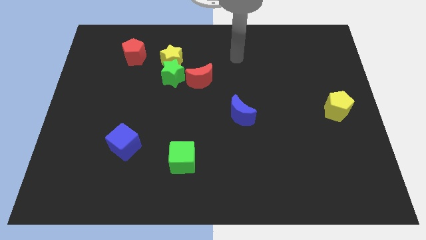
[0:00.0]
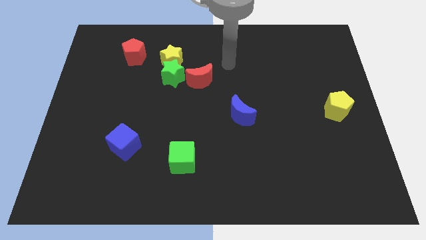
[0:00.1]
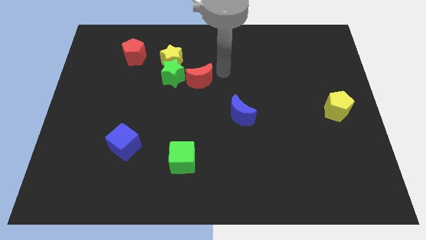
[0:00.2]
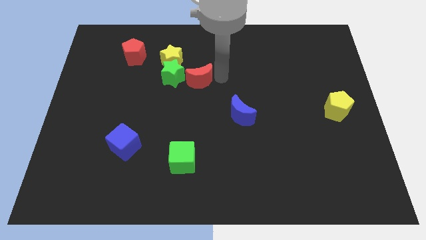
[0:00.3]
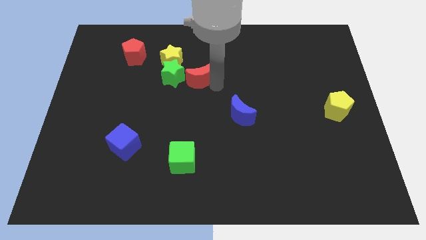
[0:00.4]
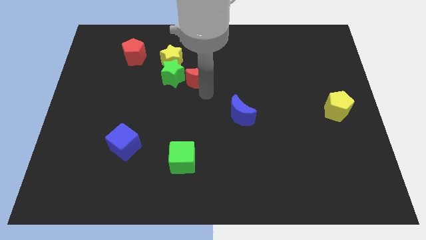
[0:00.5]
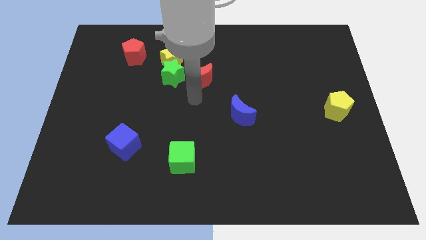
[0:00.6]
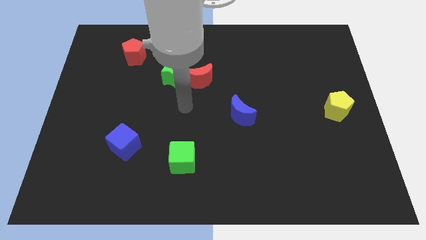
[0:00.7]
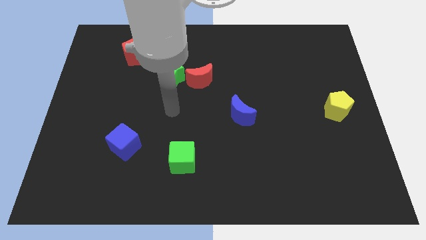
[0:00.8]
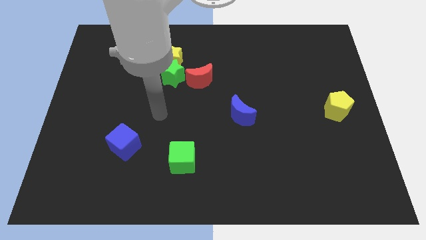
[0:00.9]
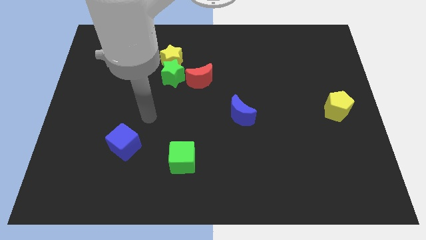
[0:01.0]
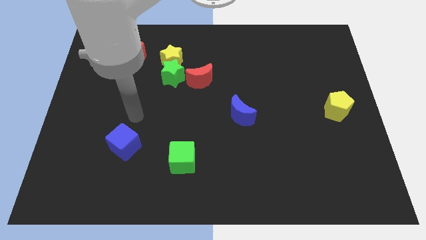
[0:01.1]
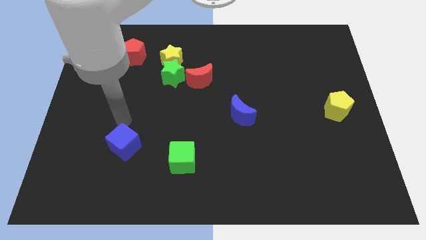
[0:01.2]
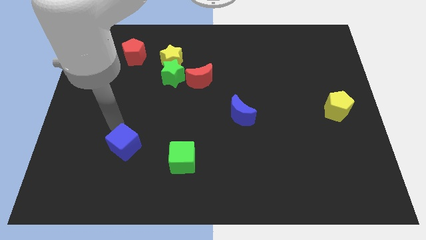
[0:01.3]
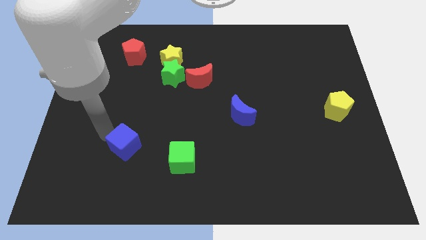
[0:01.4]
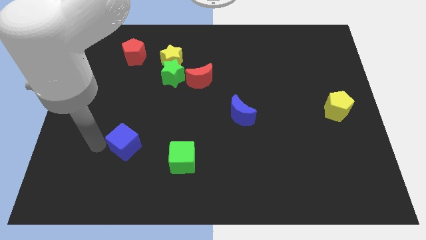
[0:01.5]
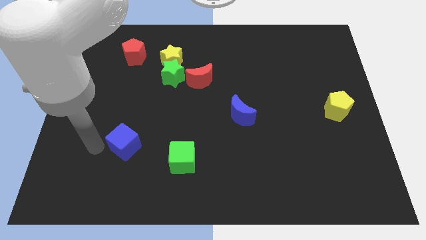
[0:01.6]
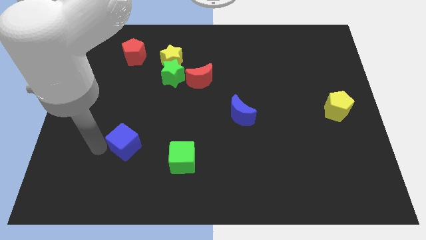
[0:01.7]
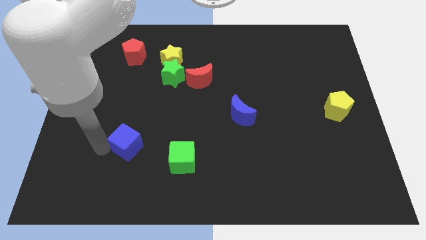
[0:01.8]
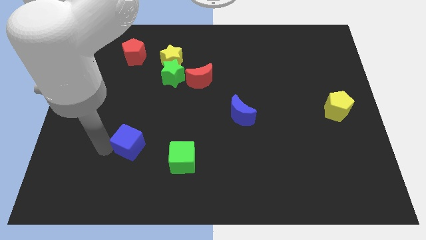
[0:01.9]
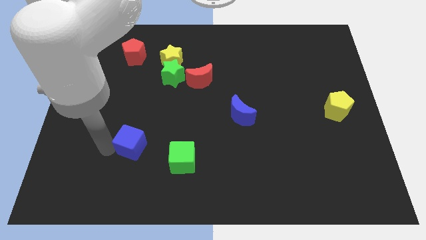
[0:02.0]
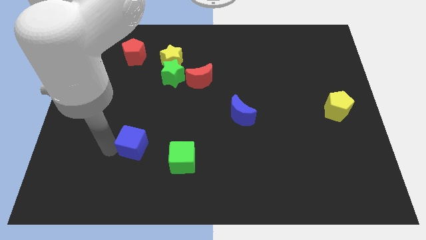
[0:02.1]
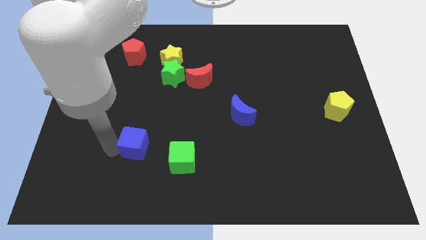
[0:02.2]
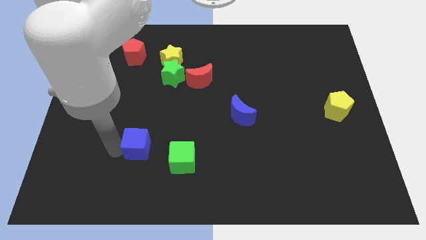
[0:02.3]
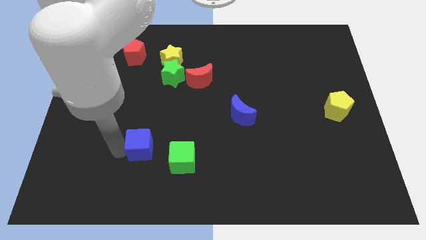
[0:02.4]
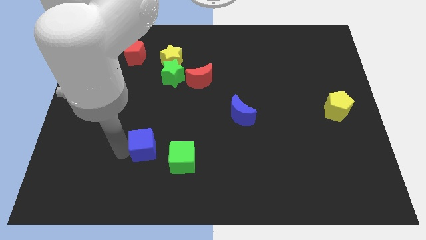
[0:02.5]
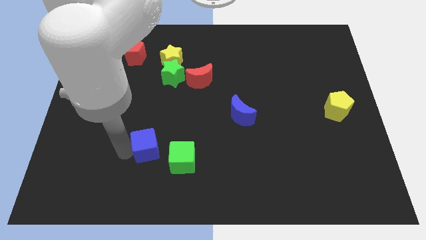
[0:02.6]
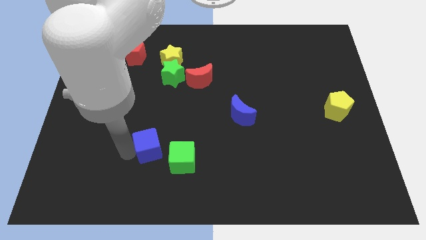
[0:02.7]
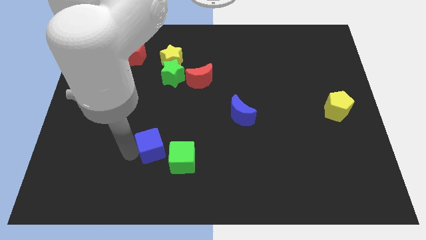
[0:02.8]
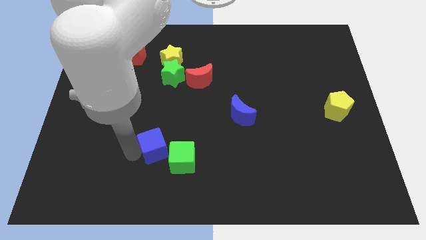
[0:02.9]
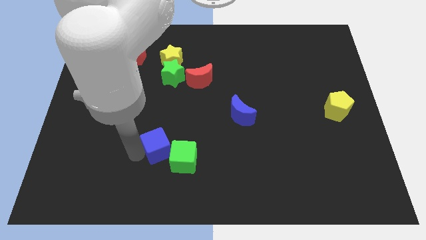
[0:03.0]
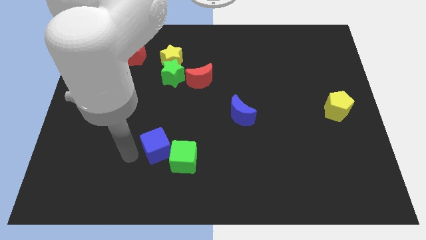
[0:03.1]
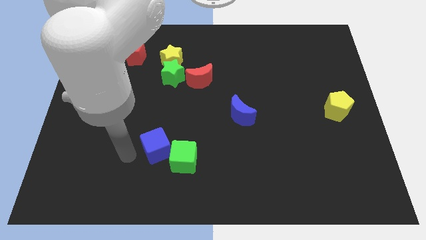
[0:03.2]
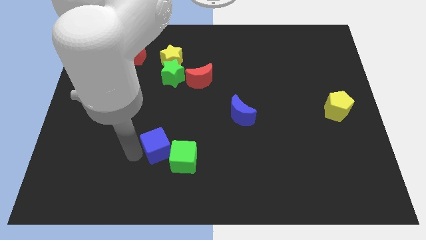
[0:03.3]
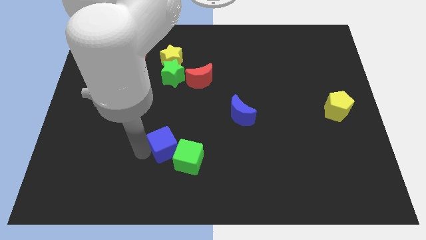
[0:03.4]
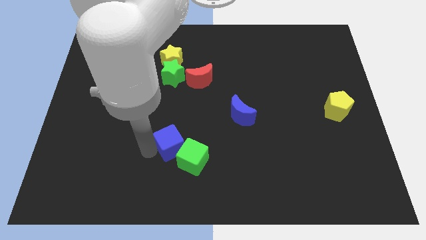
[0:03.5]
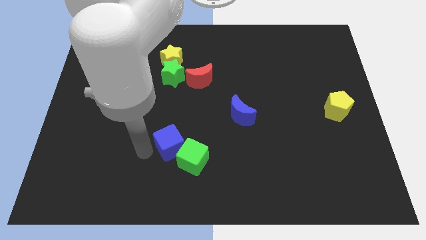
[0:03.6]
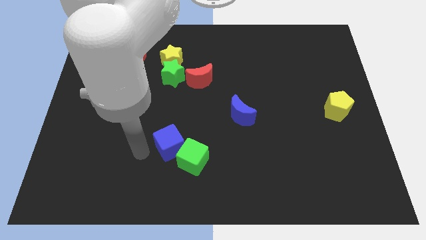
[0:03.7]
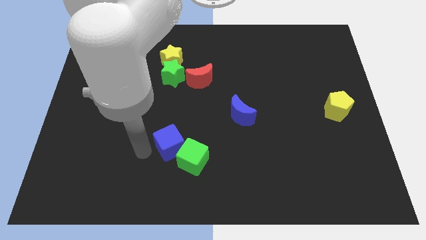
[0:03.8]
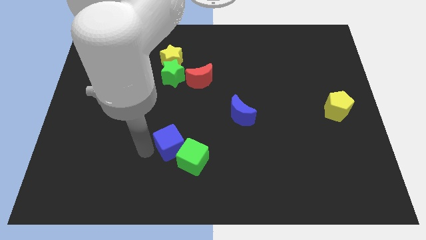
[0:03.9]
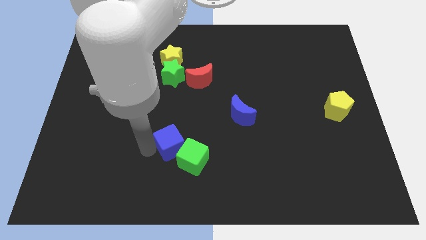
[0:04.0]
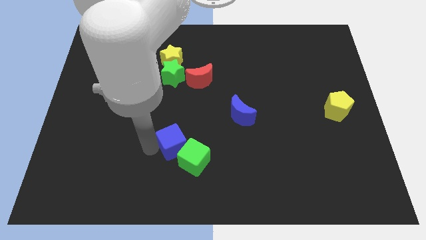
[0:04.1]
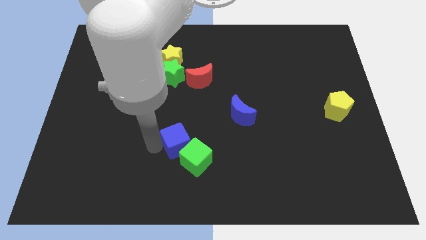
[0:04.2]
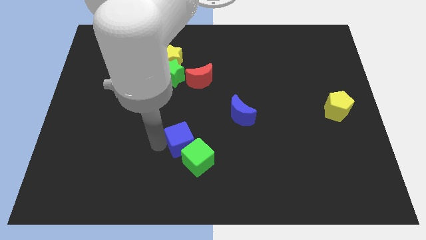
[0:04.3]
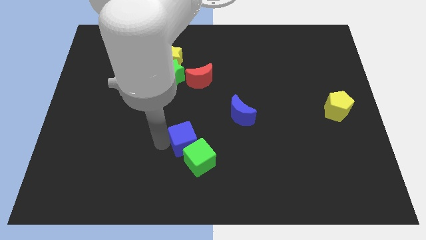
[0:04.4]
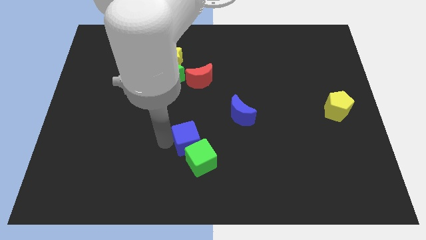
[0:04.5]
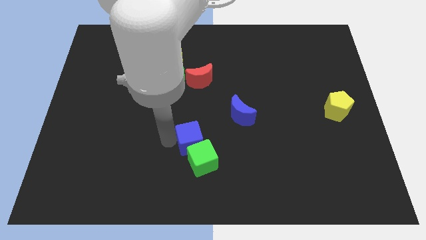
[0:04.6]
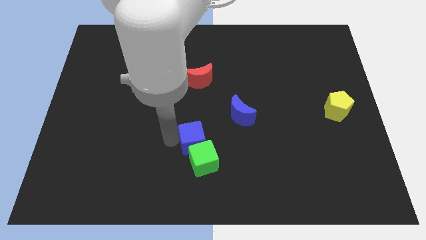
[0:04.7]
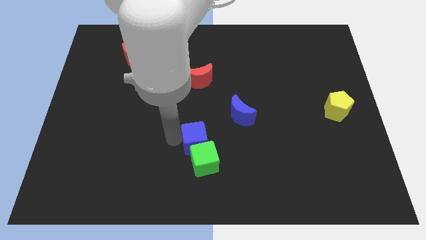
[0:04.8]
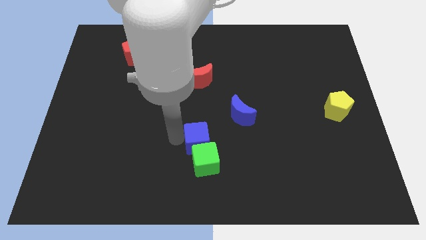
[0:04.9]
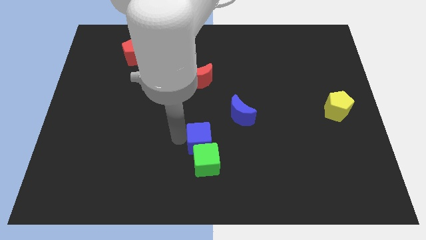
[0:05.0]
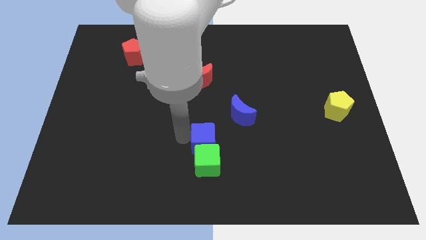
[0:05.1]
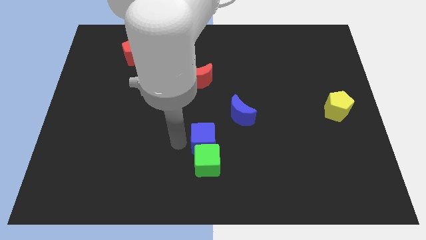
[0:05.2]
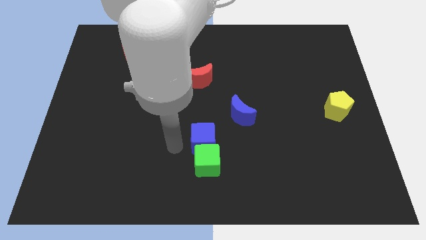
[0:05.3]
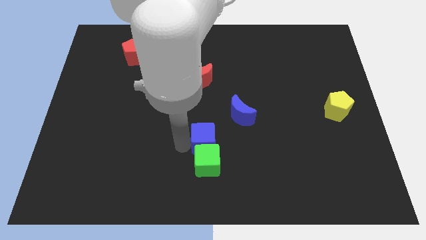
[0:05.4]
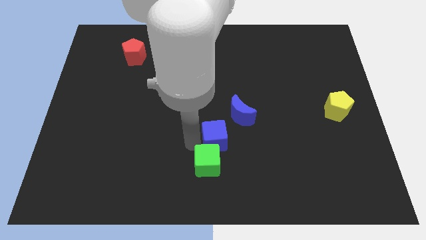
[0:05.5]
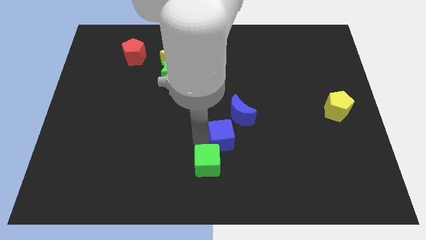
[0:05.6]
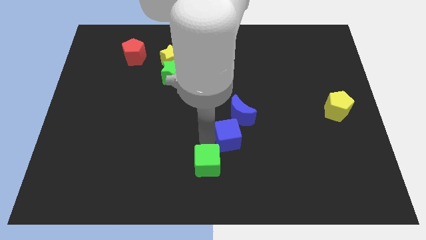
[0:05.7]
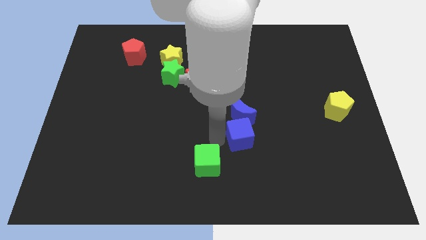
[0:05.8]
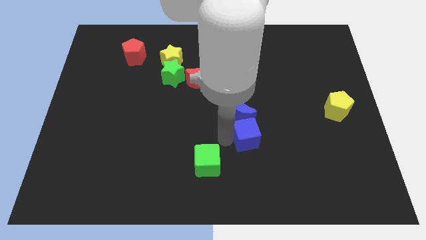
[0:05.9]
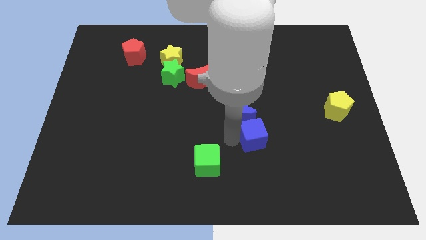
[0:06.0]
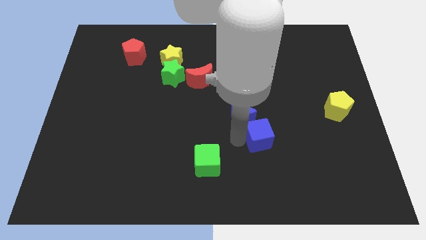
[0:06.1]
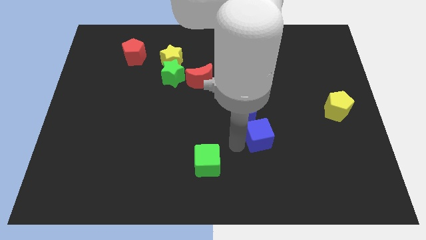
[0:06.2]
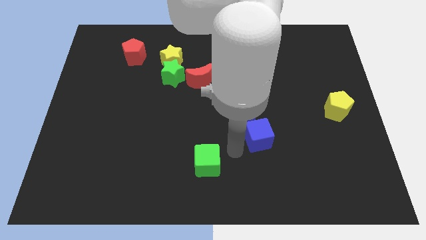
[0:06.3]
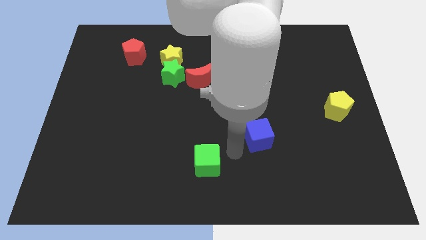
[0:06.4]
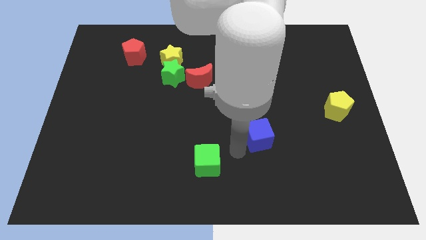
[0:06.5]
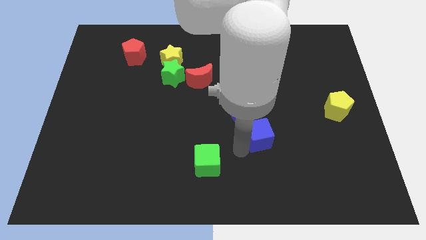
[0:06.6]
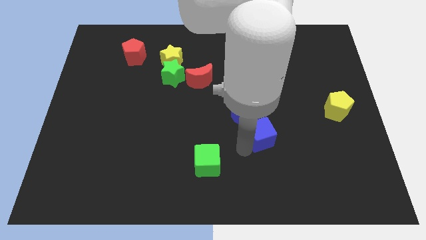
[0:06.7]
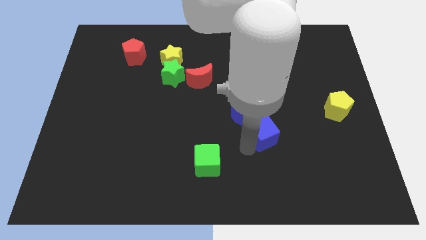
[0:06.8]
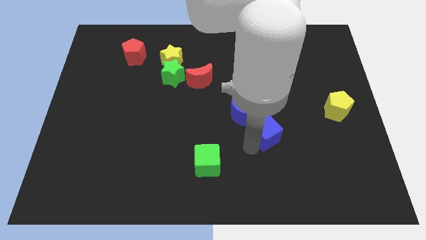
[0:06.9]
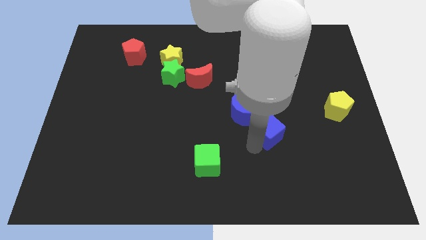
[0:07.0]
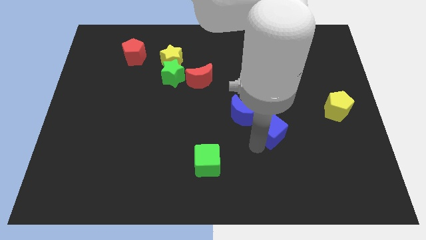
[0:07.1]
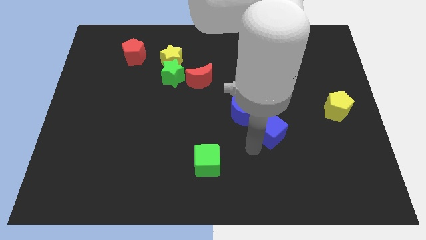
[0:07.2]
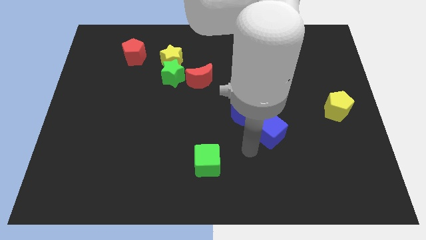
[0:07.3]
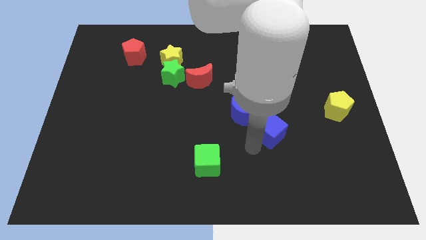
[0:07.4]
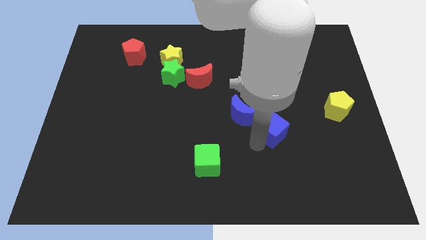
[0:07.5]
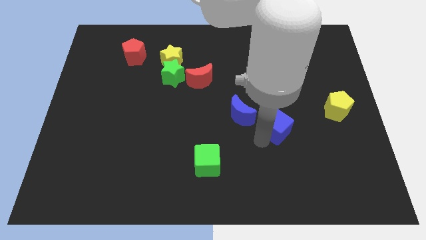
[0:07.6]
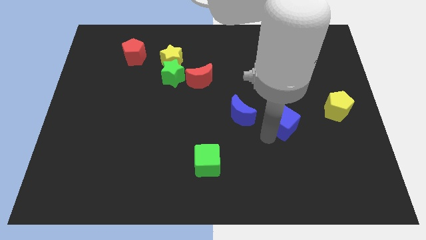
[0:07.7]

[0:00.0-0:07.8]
slide the blue cube left of the yellow pentagon
